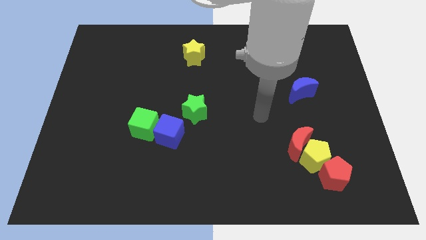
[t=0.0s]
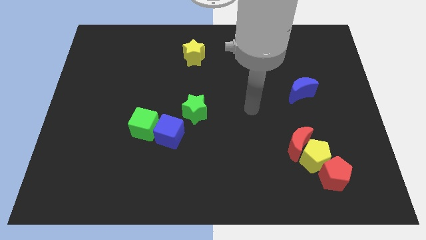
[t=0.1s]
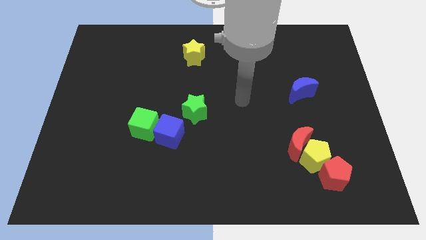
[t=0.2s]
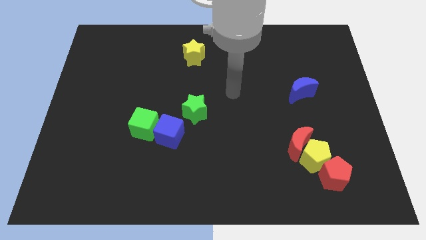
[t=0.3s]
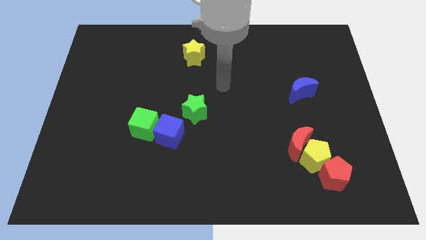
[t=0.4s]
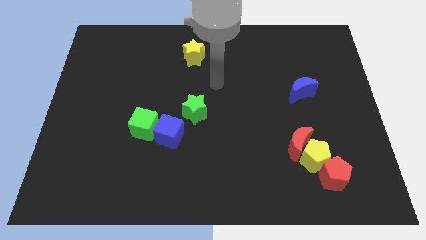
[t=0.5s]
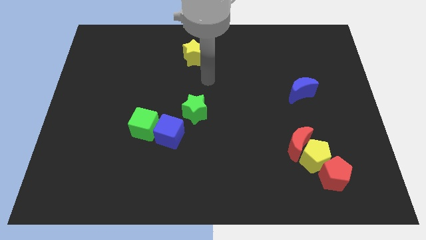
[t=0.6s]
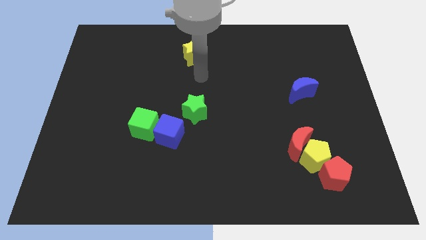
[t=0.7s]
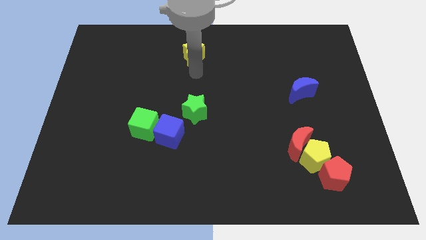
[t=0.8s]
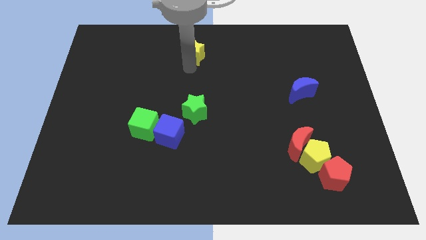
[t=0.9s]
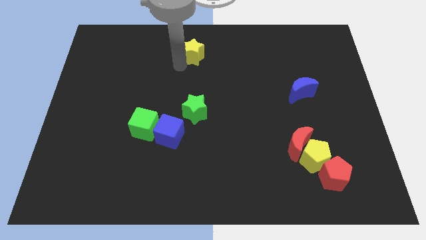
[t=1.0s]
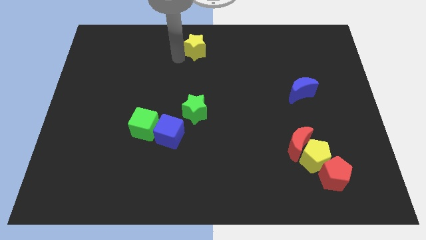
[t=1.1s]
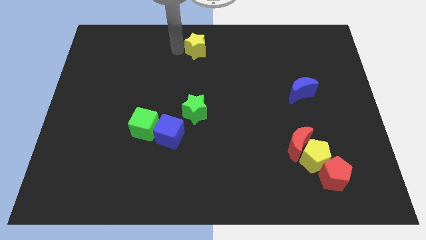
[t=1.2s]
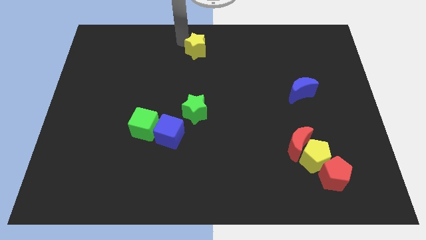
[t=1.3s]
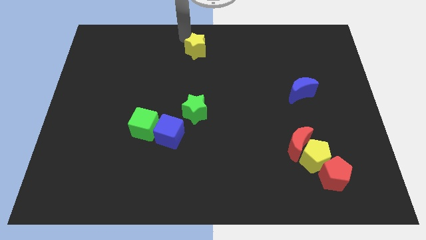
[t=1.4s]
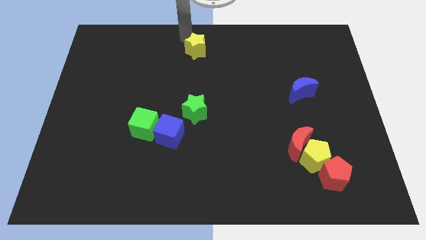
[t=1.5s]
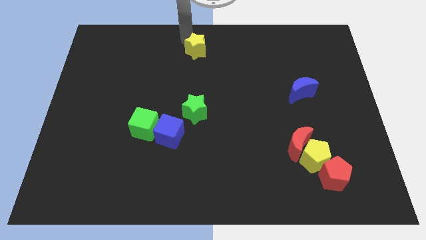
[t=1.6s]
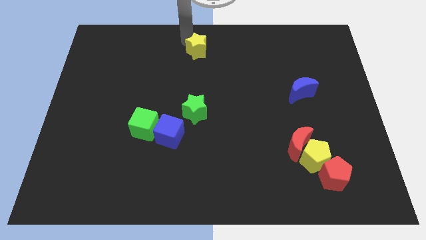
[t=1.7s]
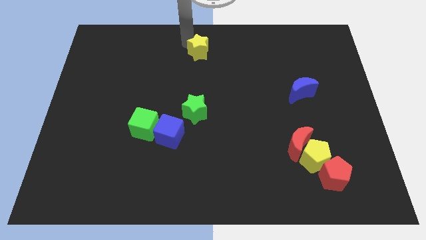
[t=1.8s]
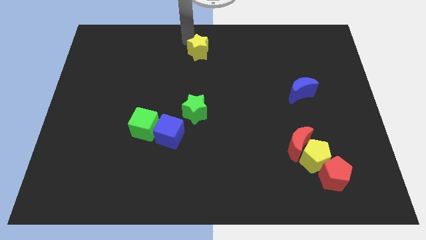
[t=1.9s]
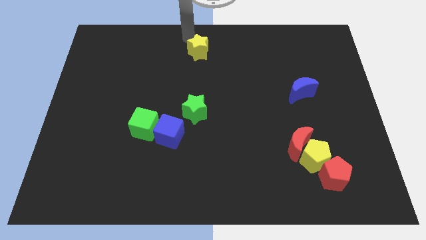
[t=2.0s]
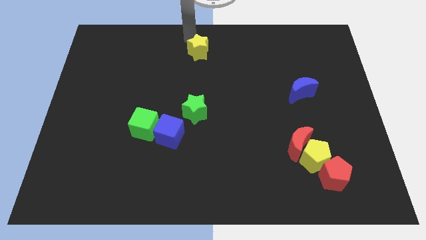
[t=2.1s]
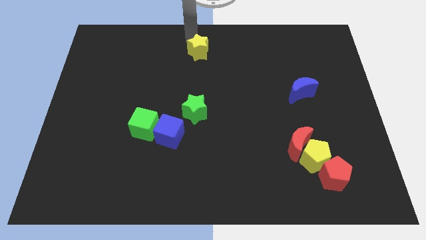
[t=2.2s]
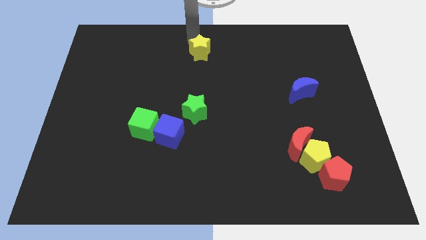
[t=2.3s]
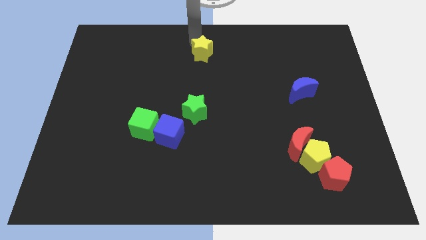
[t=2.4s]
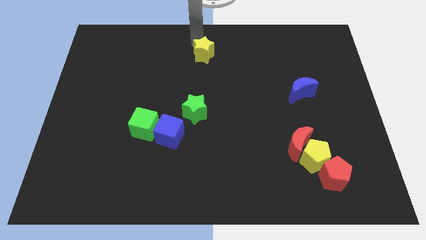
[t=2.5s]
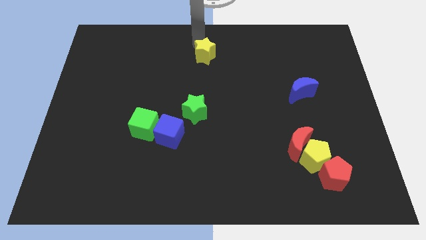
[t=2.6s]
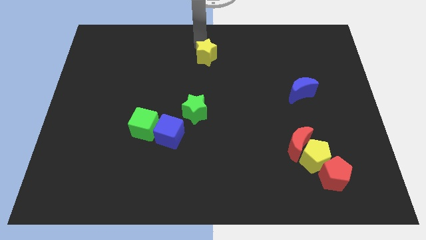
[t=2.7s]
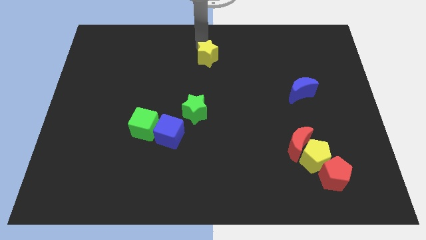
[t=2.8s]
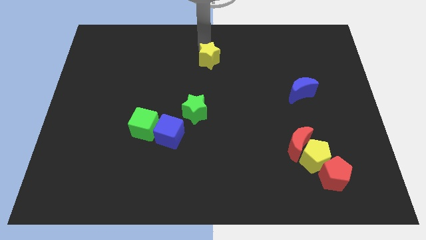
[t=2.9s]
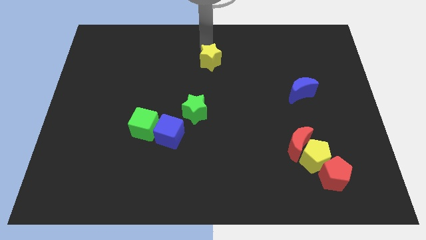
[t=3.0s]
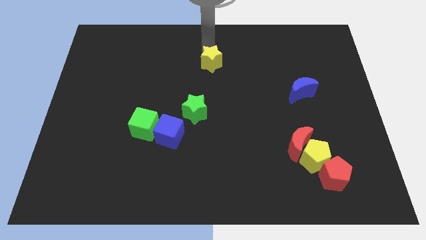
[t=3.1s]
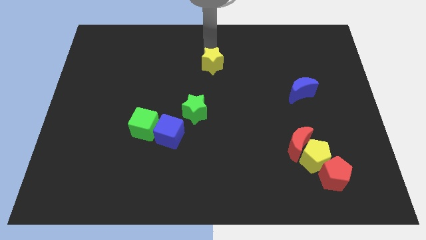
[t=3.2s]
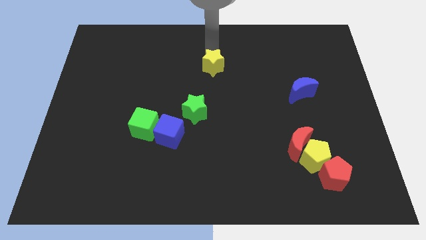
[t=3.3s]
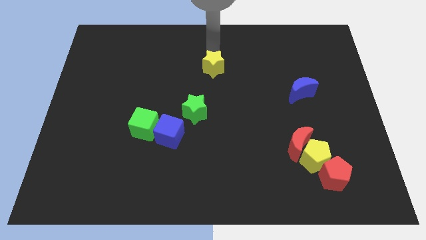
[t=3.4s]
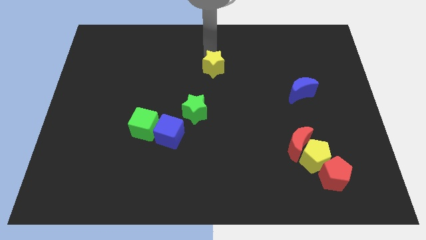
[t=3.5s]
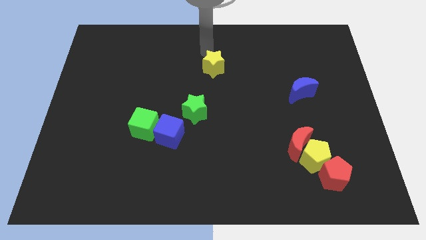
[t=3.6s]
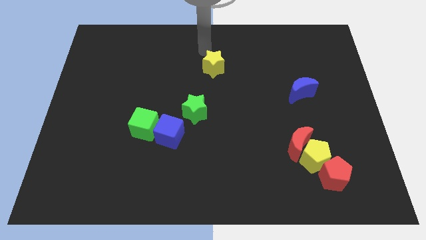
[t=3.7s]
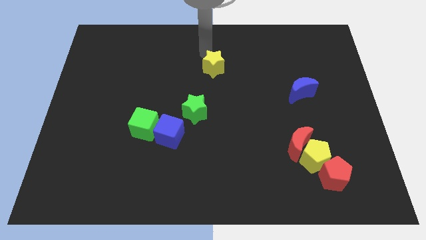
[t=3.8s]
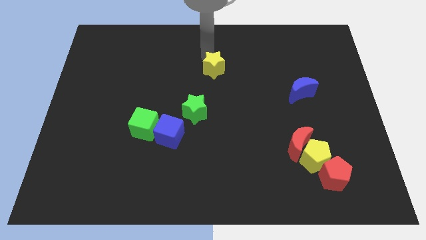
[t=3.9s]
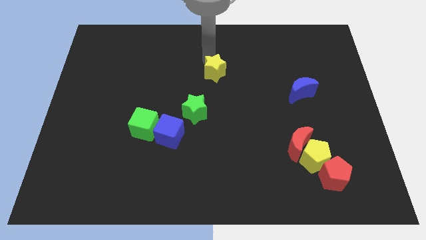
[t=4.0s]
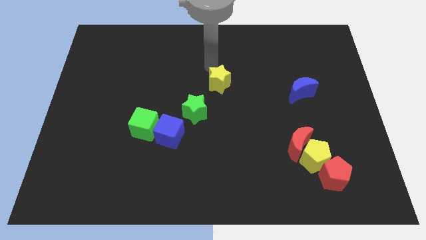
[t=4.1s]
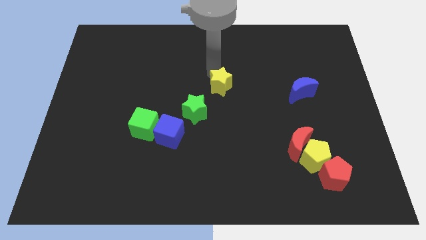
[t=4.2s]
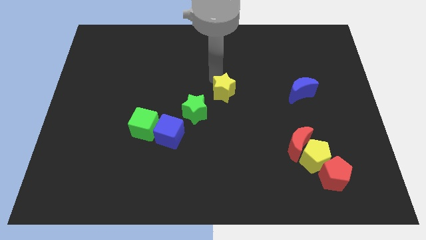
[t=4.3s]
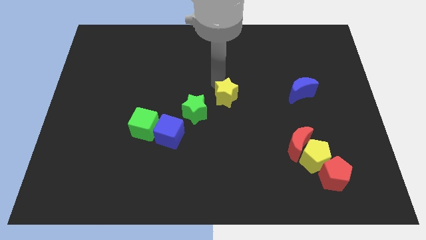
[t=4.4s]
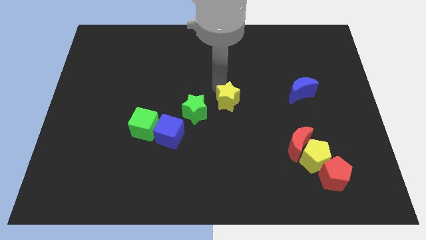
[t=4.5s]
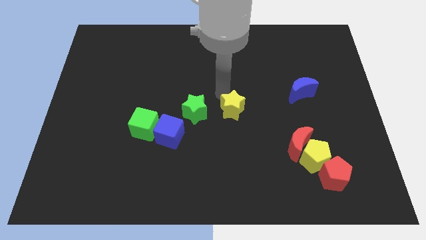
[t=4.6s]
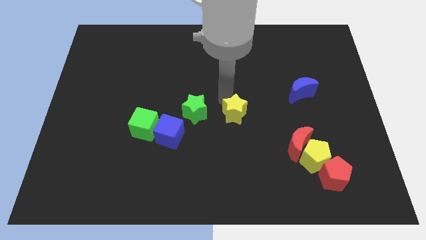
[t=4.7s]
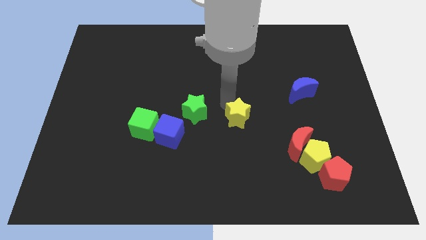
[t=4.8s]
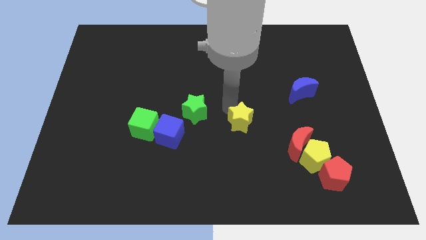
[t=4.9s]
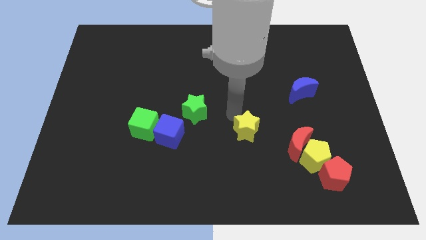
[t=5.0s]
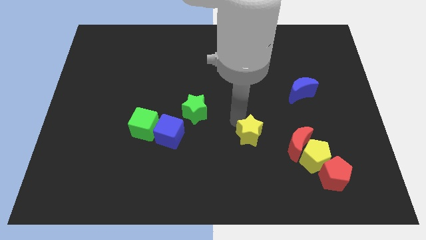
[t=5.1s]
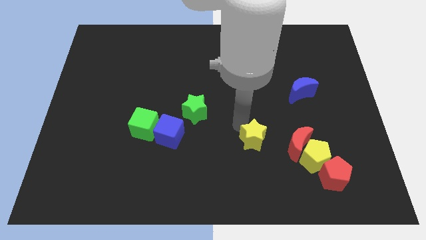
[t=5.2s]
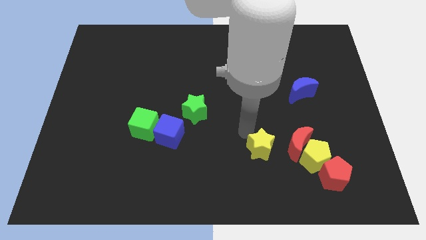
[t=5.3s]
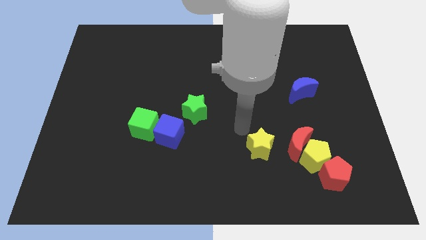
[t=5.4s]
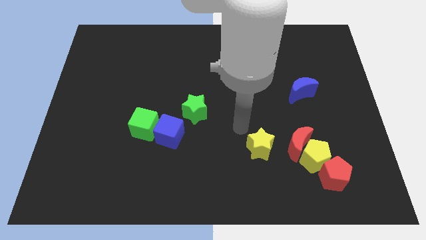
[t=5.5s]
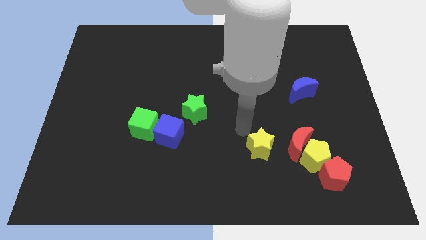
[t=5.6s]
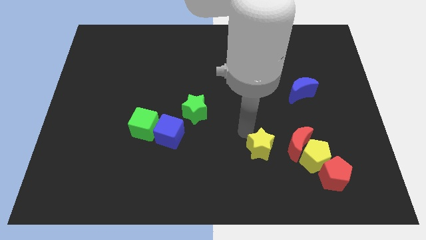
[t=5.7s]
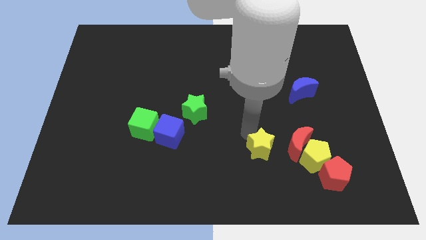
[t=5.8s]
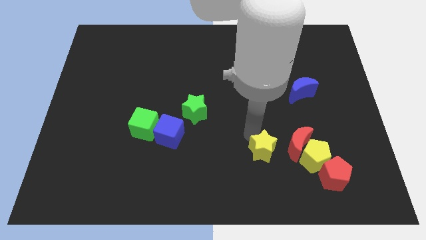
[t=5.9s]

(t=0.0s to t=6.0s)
put the yellow star to the bottom left of the red moon

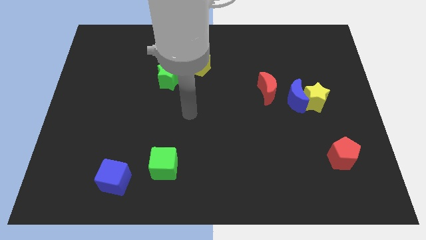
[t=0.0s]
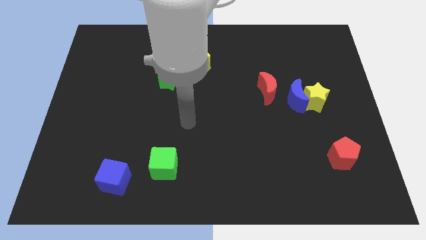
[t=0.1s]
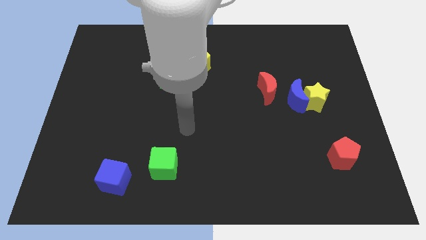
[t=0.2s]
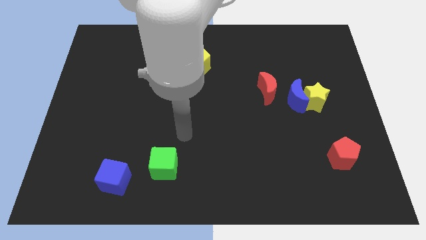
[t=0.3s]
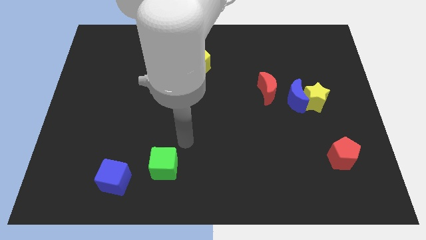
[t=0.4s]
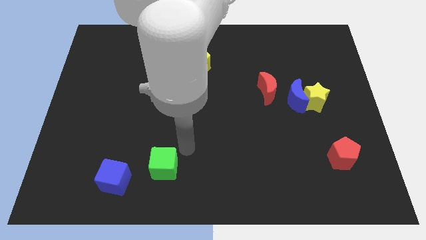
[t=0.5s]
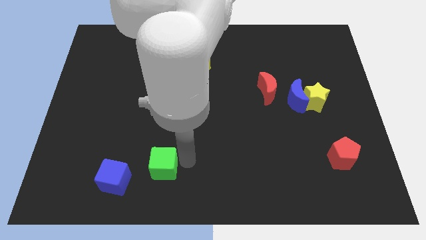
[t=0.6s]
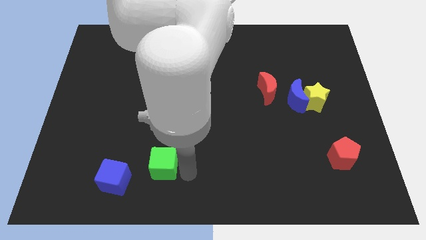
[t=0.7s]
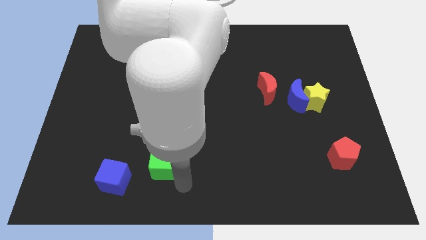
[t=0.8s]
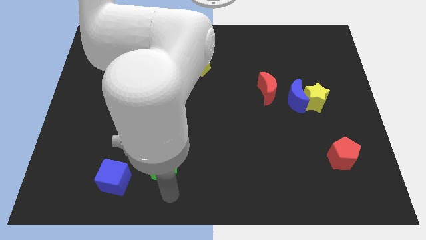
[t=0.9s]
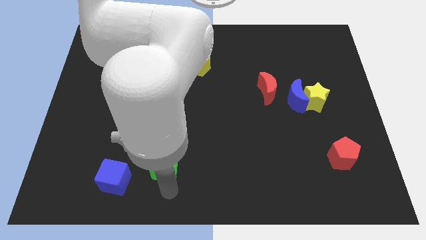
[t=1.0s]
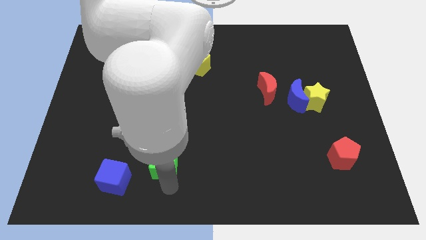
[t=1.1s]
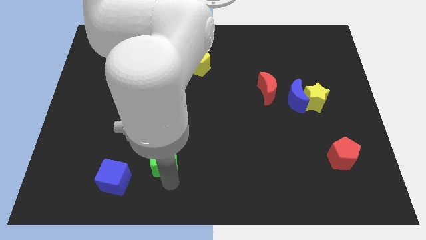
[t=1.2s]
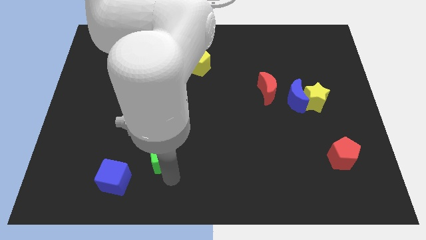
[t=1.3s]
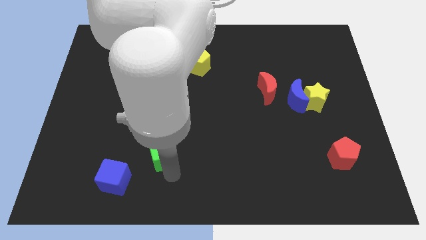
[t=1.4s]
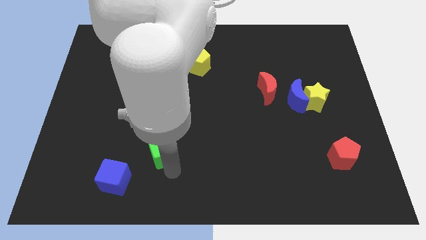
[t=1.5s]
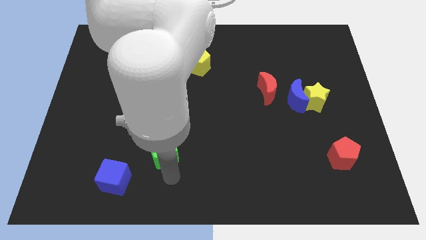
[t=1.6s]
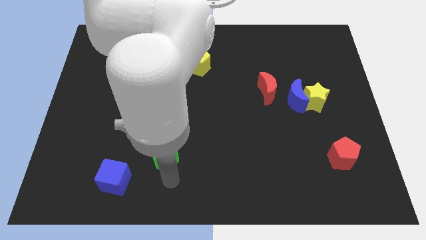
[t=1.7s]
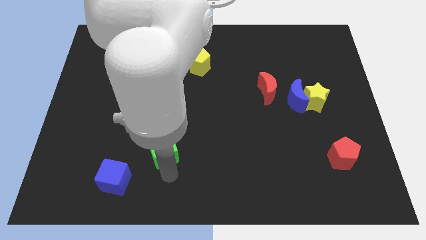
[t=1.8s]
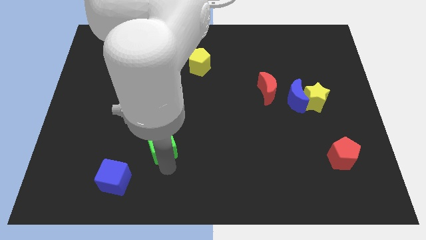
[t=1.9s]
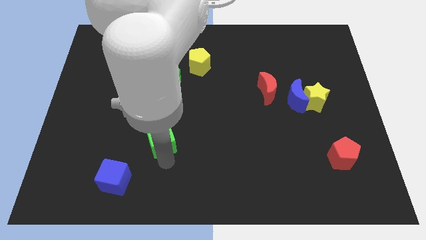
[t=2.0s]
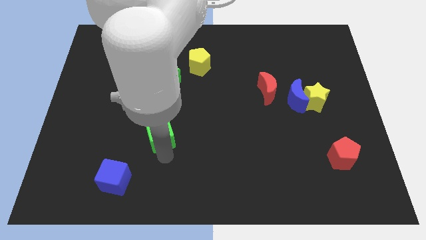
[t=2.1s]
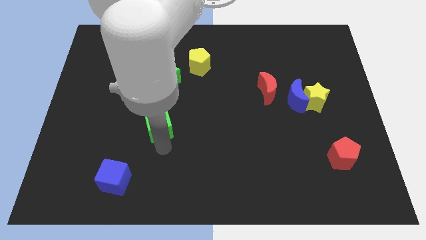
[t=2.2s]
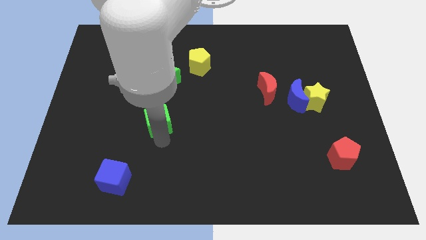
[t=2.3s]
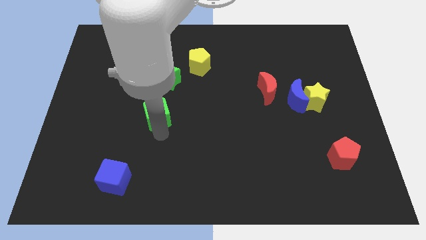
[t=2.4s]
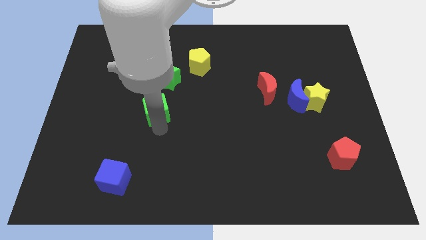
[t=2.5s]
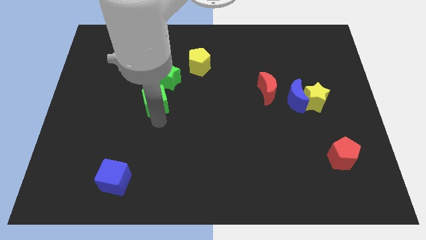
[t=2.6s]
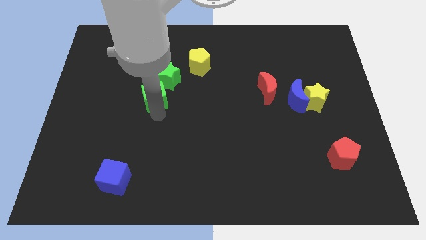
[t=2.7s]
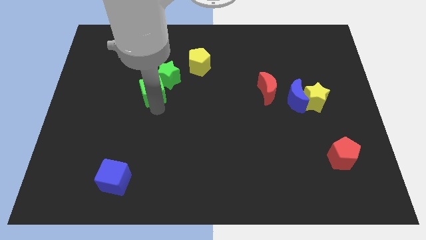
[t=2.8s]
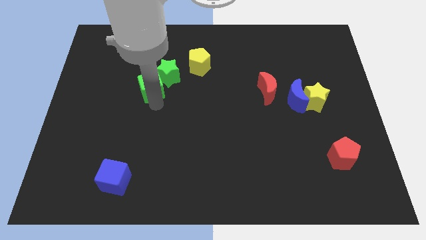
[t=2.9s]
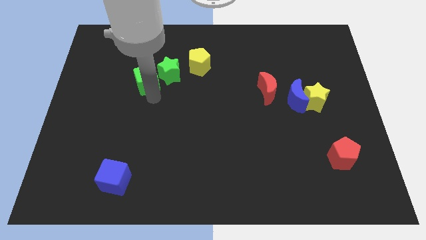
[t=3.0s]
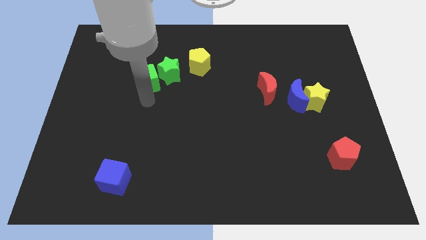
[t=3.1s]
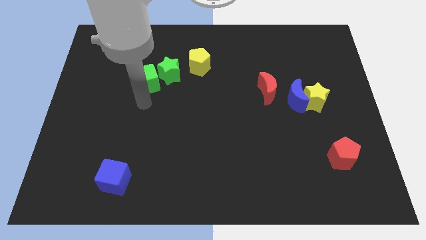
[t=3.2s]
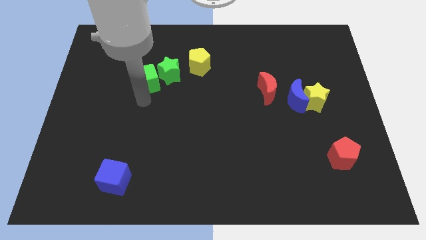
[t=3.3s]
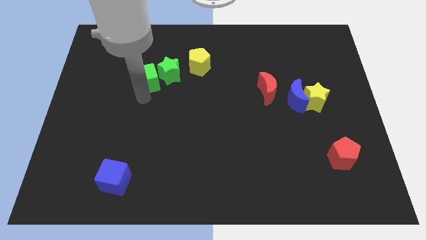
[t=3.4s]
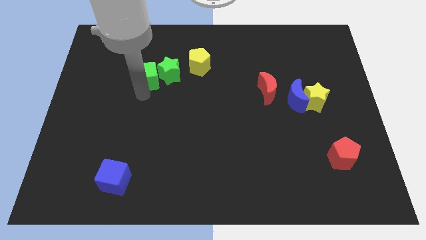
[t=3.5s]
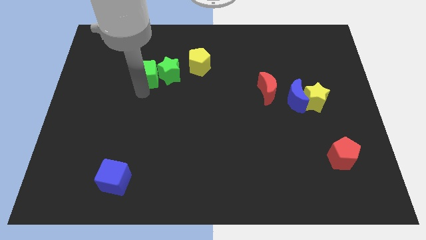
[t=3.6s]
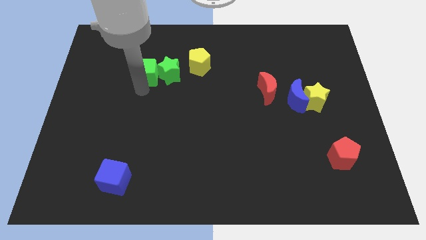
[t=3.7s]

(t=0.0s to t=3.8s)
move the green cube to the top left side of the green star
